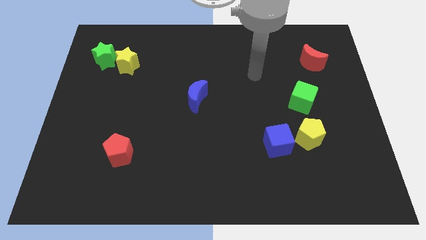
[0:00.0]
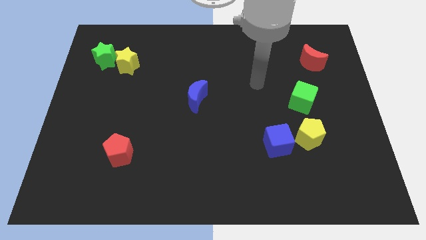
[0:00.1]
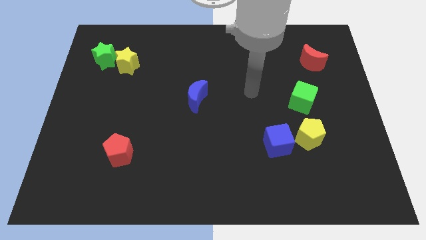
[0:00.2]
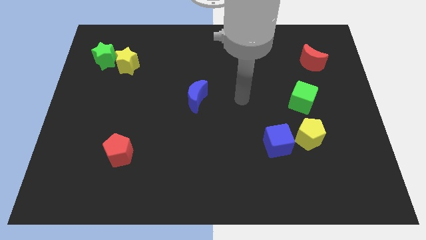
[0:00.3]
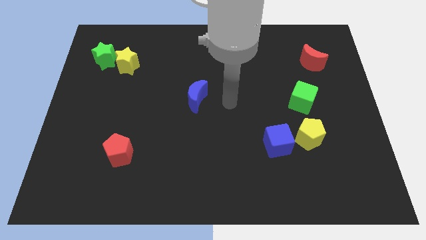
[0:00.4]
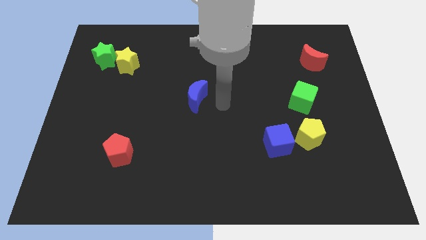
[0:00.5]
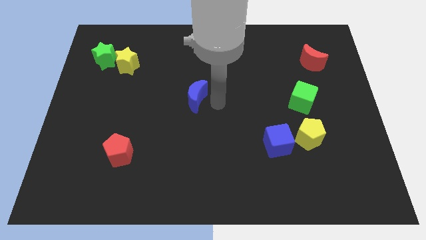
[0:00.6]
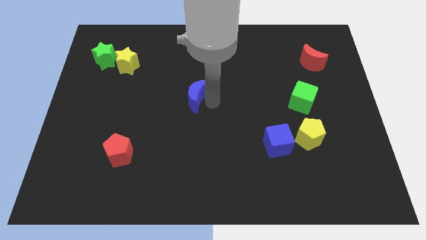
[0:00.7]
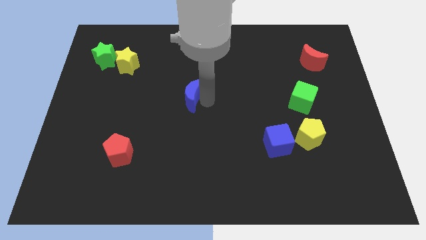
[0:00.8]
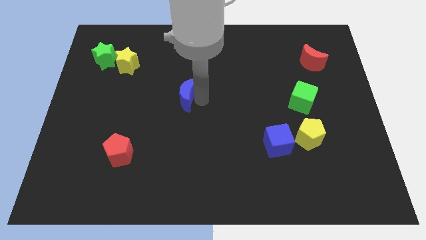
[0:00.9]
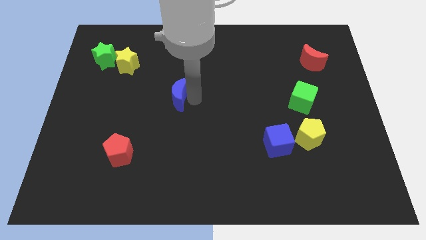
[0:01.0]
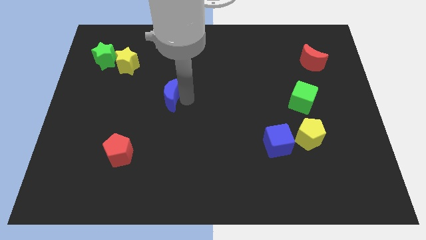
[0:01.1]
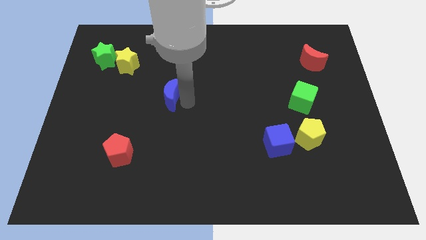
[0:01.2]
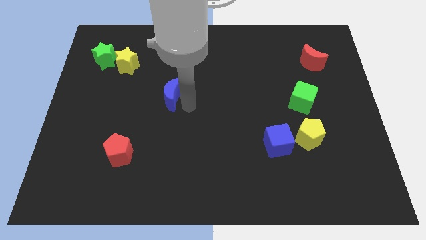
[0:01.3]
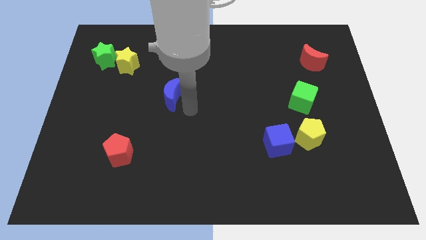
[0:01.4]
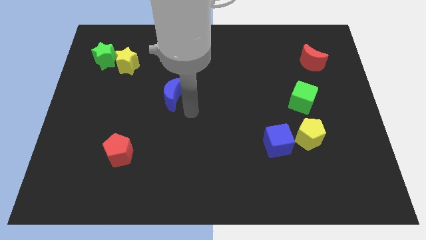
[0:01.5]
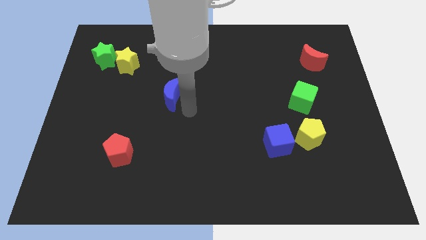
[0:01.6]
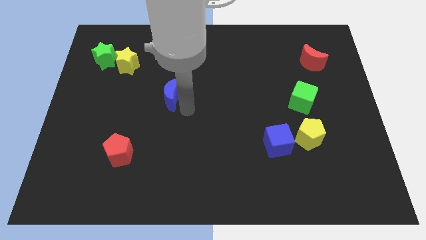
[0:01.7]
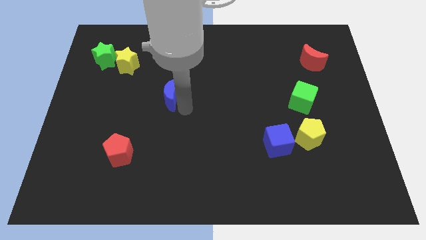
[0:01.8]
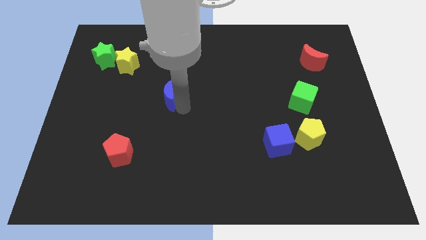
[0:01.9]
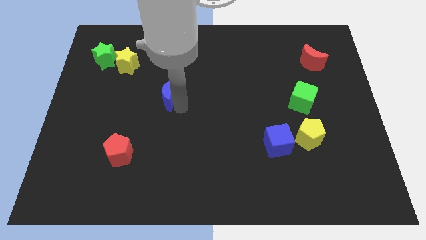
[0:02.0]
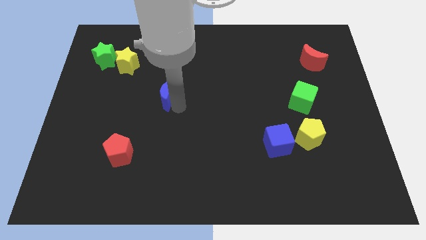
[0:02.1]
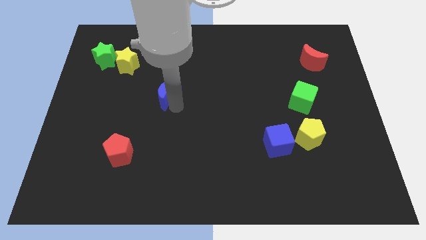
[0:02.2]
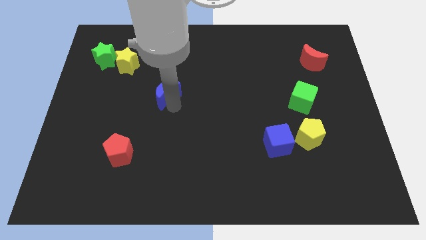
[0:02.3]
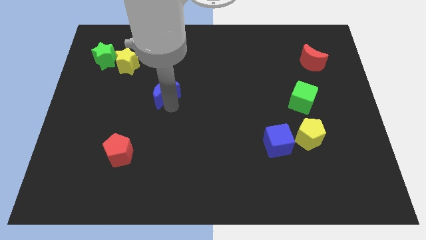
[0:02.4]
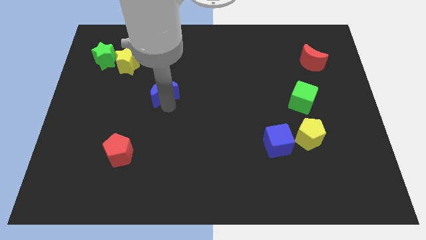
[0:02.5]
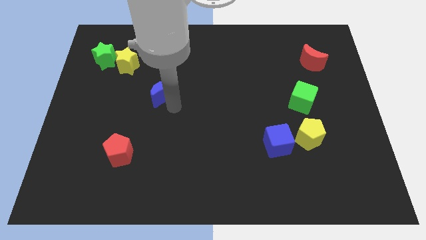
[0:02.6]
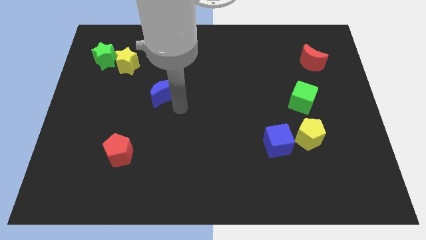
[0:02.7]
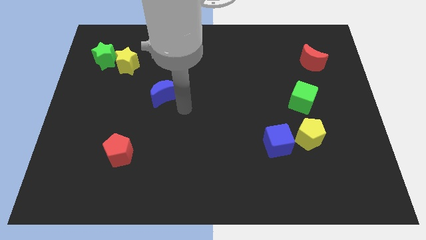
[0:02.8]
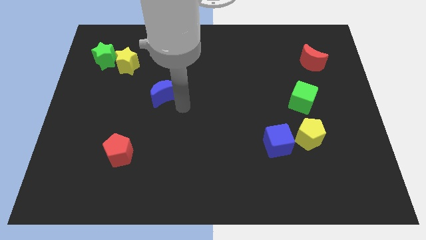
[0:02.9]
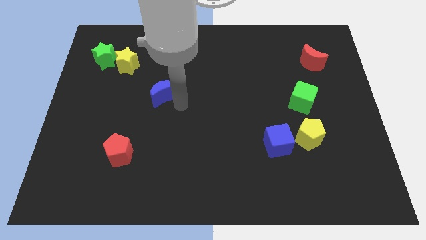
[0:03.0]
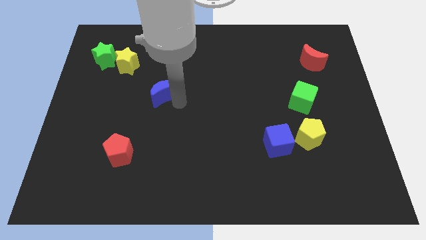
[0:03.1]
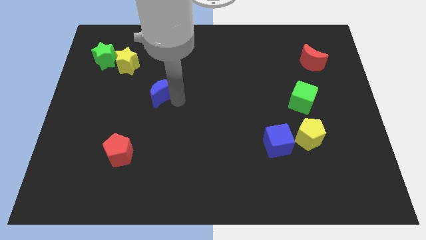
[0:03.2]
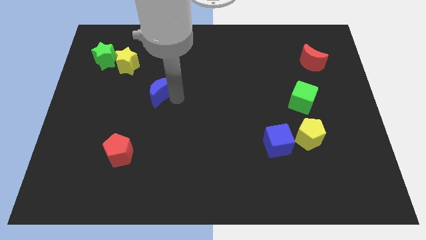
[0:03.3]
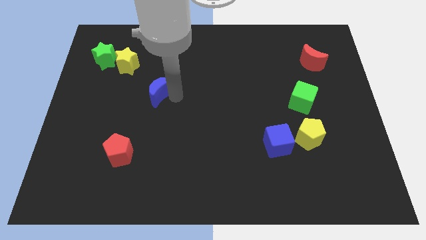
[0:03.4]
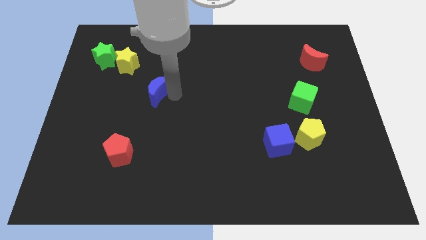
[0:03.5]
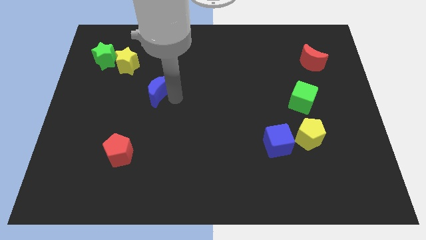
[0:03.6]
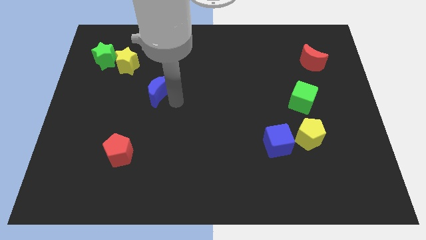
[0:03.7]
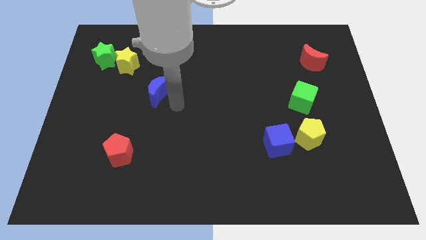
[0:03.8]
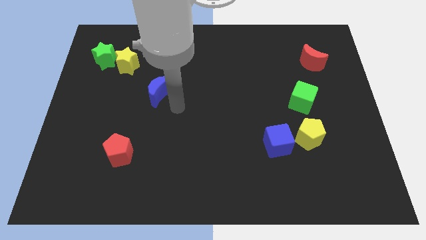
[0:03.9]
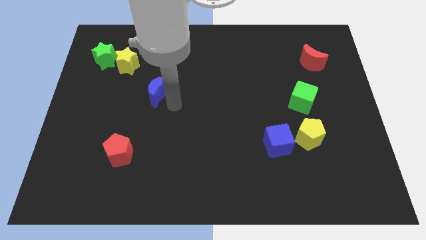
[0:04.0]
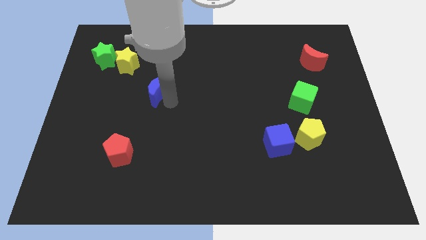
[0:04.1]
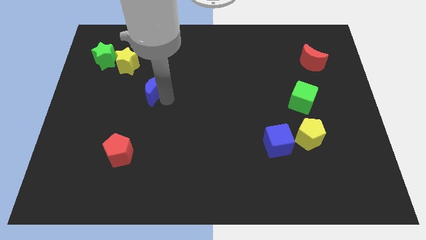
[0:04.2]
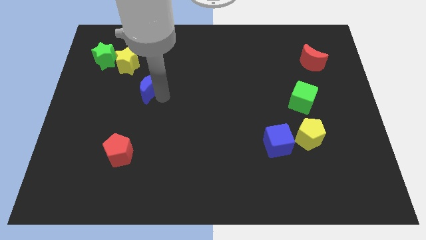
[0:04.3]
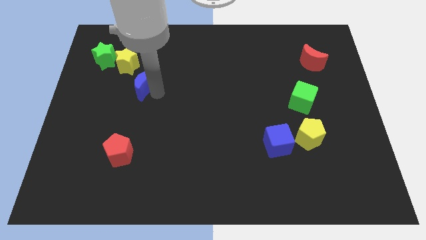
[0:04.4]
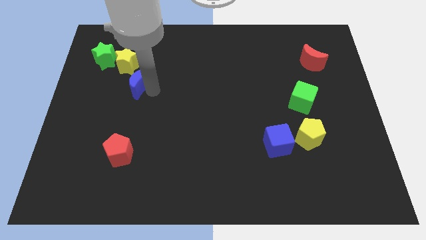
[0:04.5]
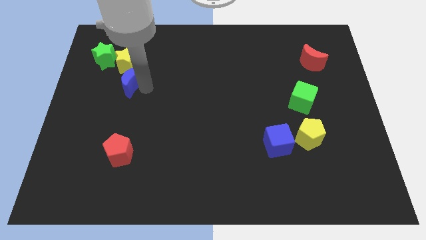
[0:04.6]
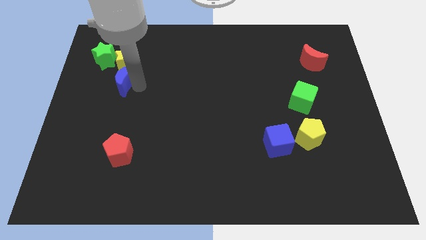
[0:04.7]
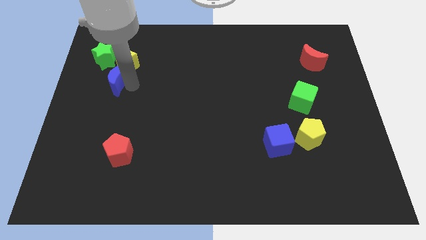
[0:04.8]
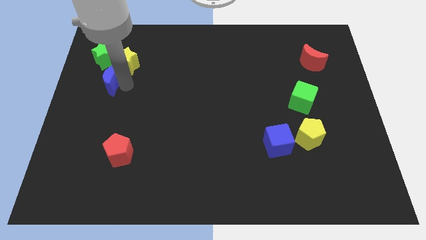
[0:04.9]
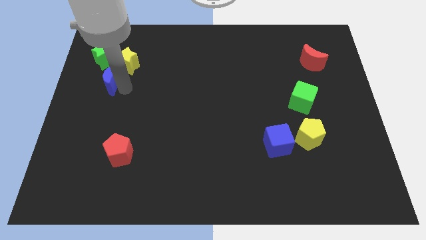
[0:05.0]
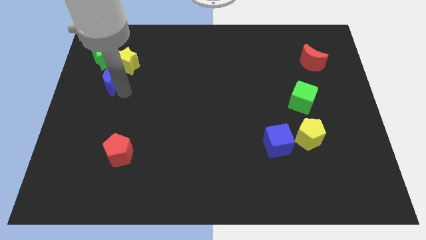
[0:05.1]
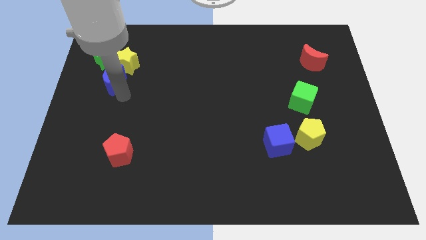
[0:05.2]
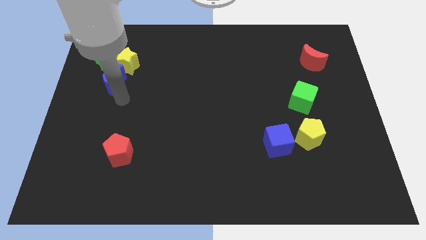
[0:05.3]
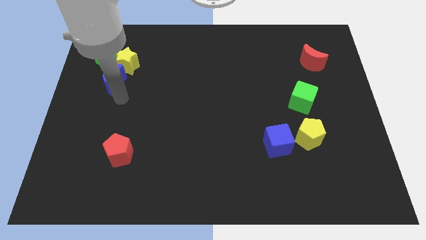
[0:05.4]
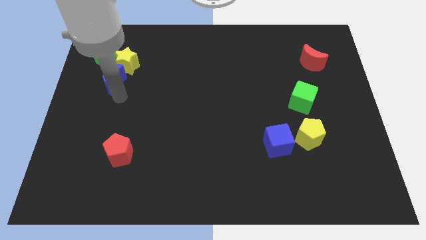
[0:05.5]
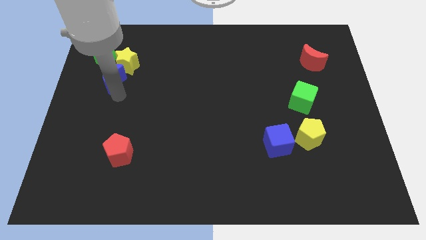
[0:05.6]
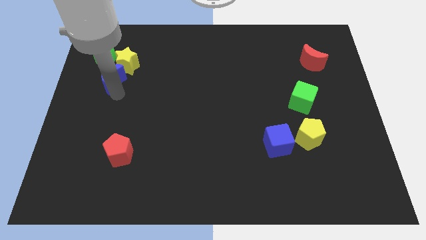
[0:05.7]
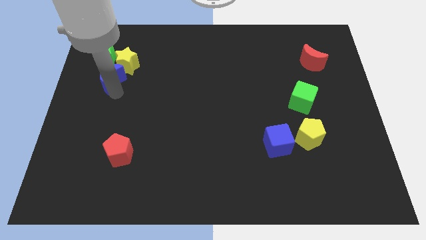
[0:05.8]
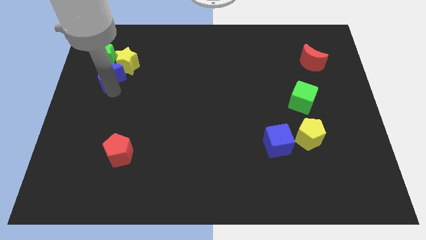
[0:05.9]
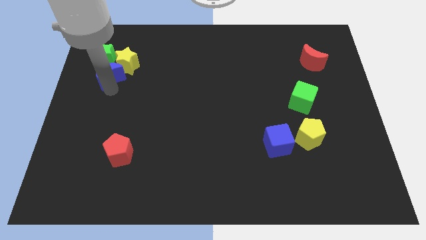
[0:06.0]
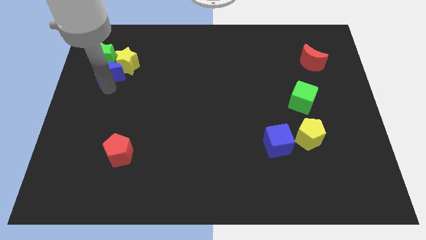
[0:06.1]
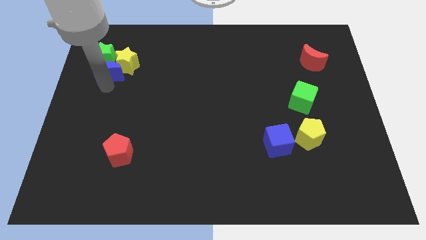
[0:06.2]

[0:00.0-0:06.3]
put the blue moon to the green star

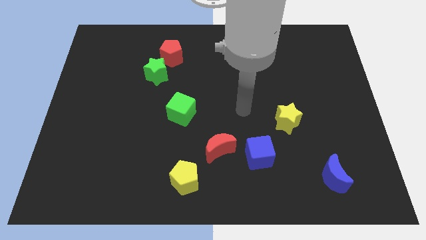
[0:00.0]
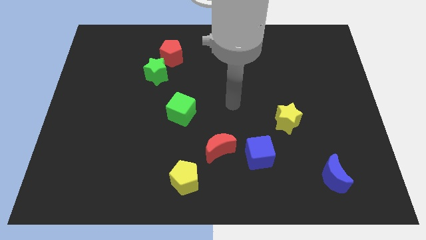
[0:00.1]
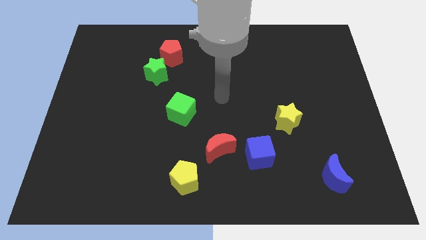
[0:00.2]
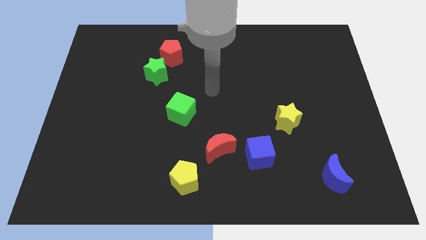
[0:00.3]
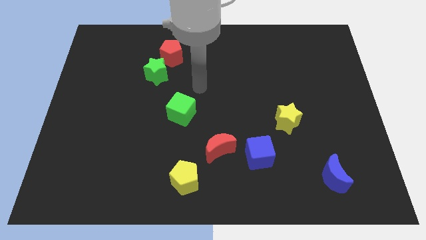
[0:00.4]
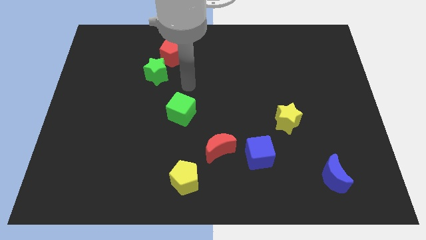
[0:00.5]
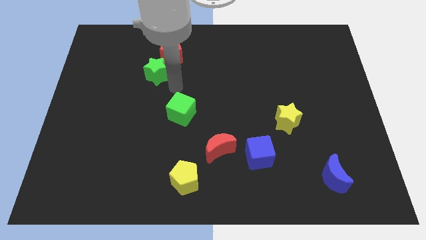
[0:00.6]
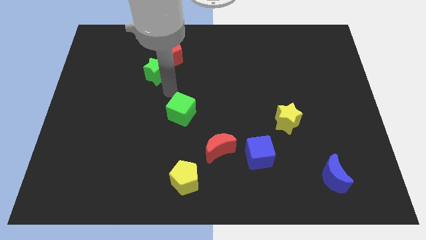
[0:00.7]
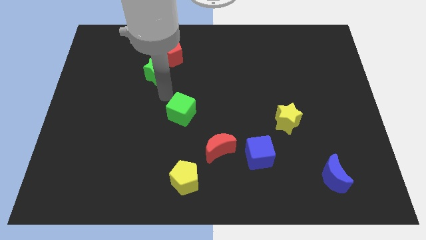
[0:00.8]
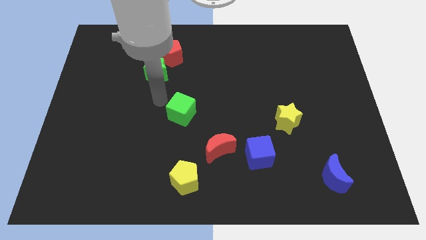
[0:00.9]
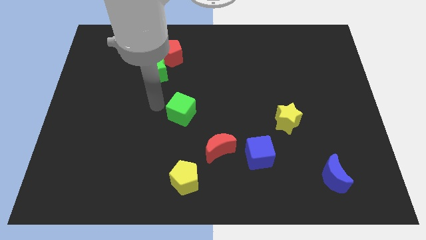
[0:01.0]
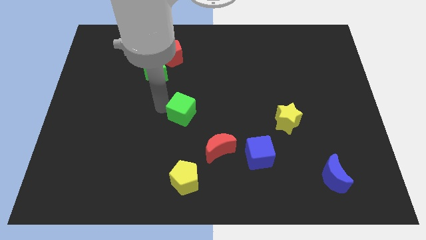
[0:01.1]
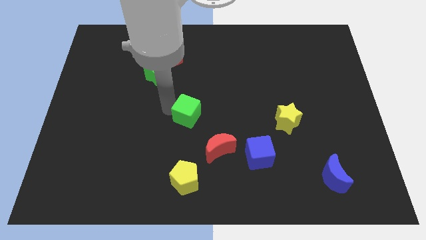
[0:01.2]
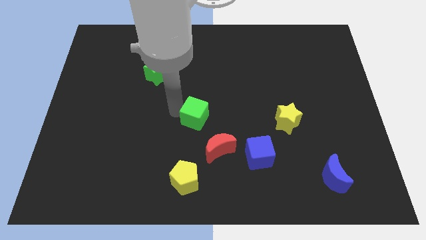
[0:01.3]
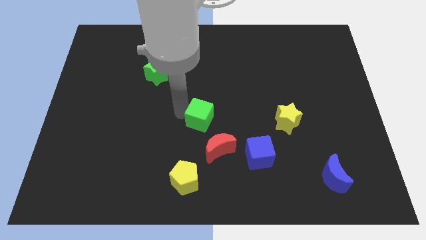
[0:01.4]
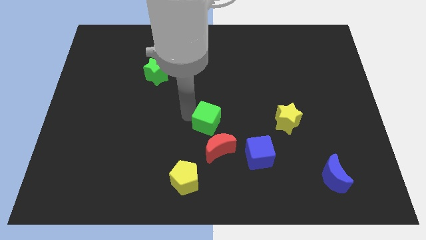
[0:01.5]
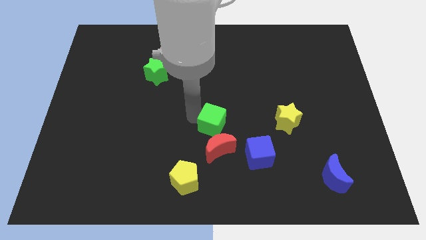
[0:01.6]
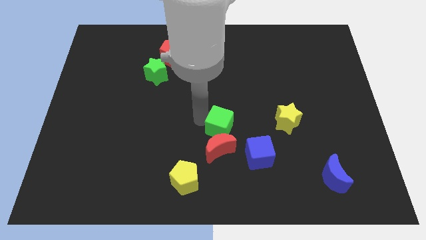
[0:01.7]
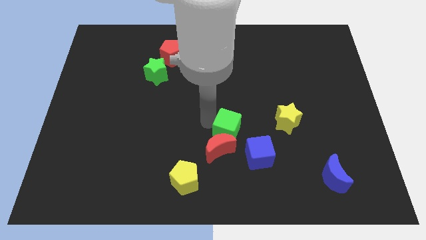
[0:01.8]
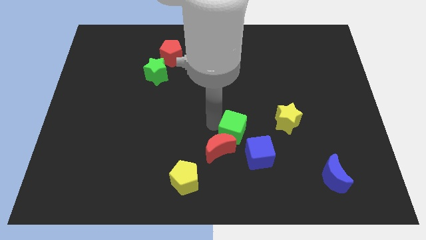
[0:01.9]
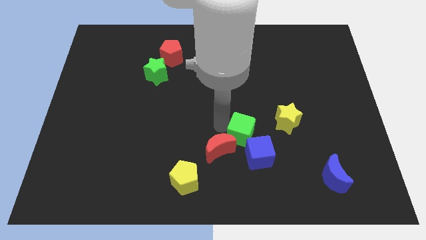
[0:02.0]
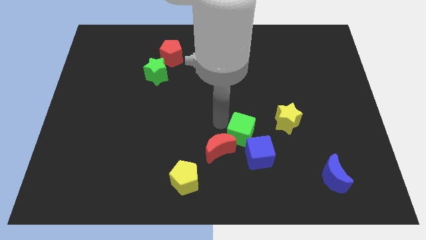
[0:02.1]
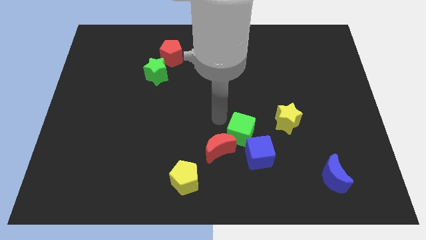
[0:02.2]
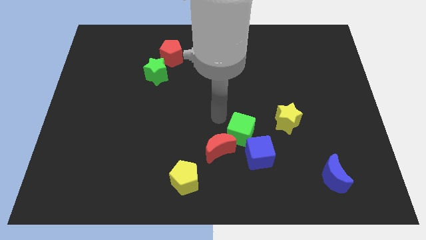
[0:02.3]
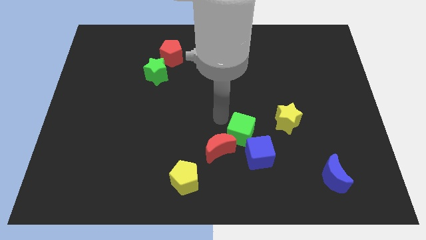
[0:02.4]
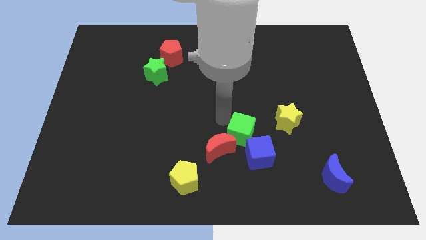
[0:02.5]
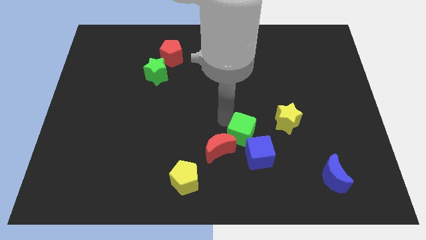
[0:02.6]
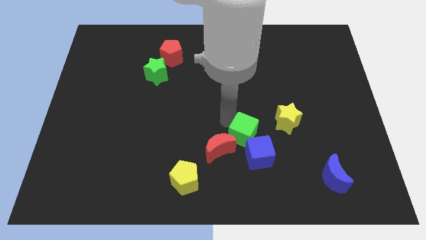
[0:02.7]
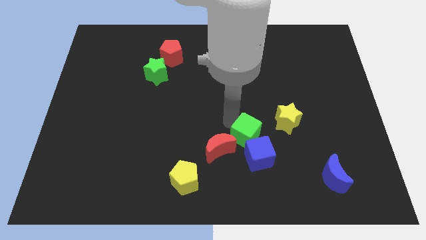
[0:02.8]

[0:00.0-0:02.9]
push the green cube to the blue cube
